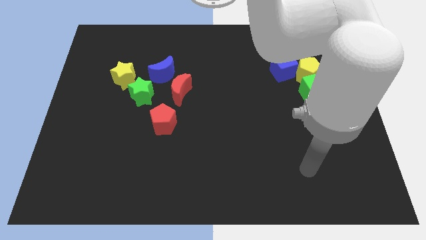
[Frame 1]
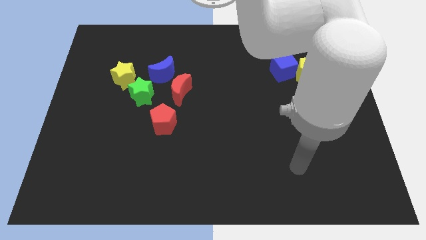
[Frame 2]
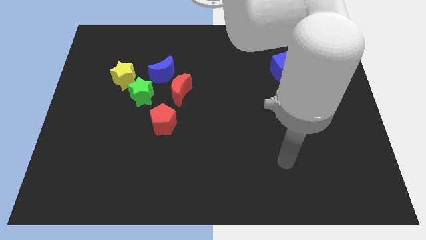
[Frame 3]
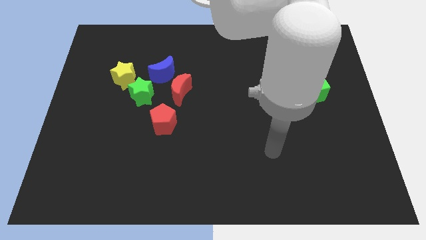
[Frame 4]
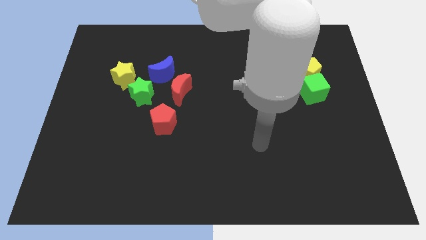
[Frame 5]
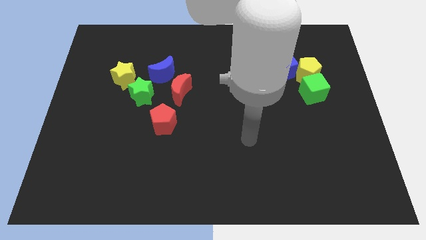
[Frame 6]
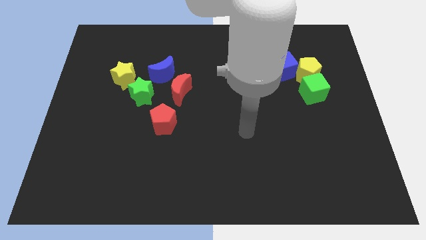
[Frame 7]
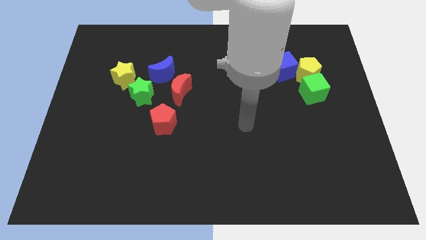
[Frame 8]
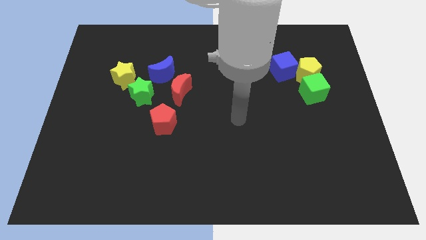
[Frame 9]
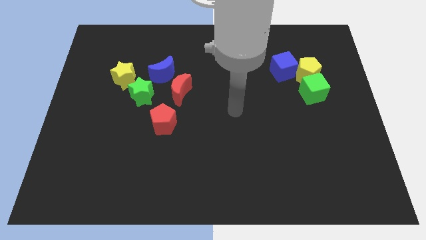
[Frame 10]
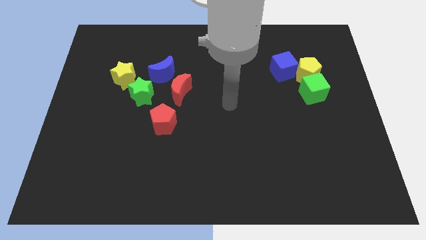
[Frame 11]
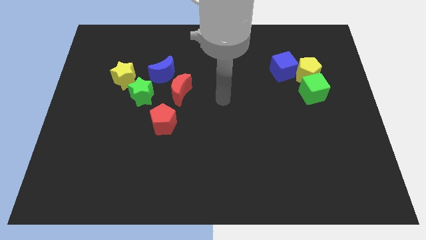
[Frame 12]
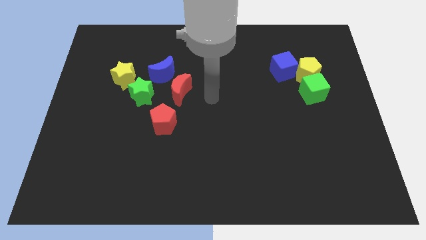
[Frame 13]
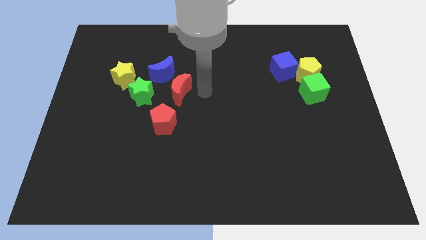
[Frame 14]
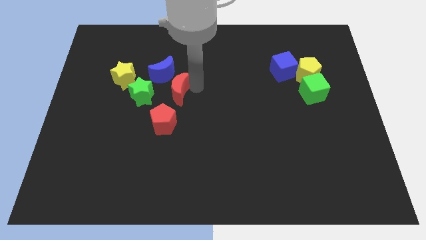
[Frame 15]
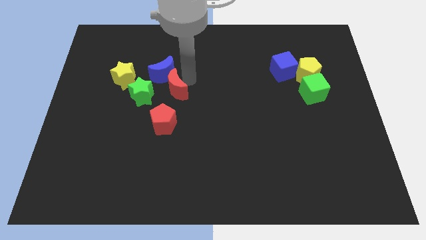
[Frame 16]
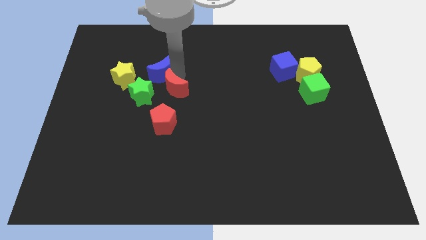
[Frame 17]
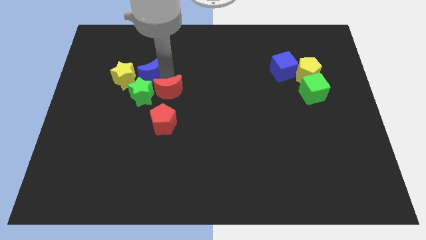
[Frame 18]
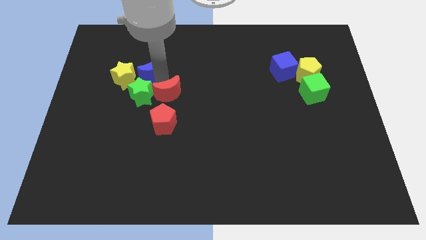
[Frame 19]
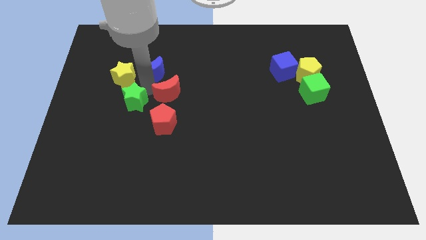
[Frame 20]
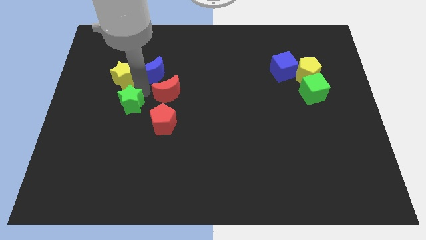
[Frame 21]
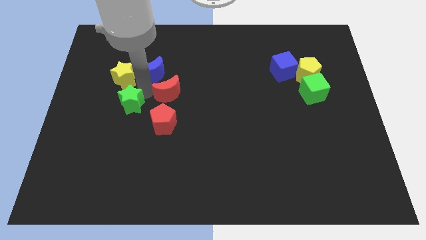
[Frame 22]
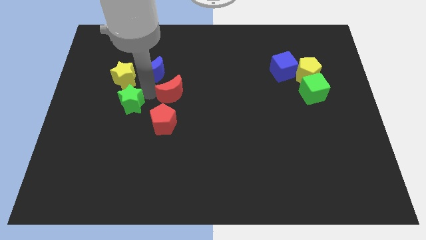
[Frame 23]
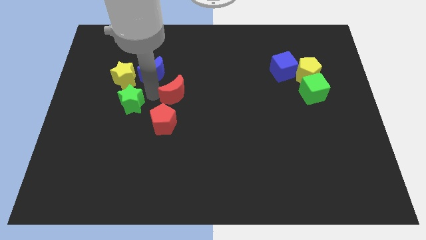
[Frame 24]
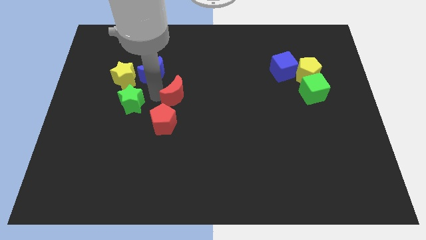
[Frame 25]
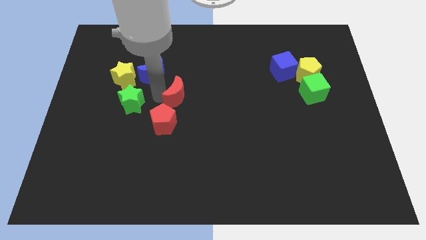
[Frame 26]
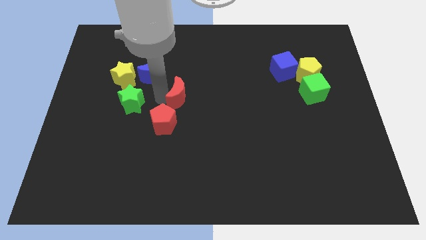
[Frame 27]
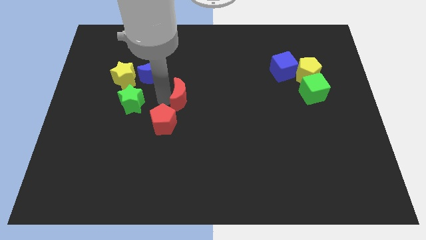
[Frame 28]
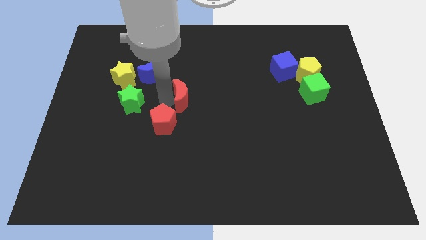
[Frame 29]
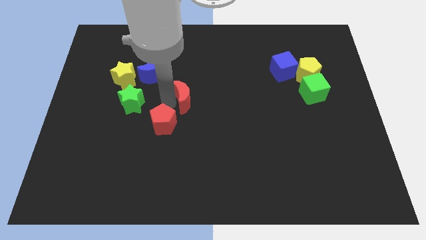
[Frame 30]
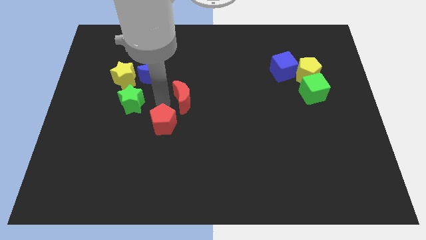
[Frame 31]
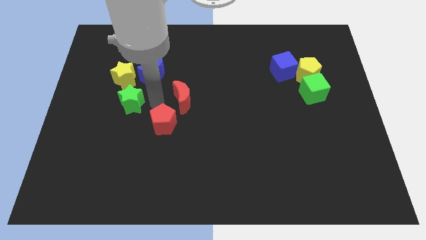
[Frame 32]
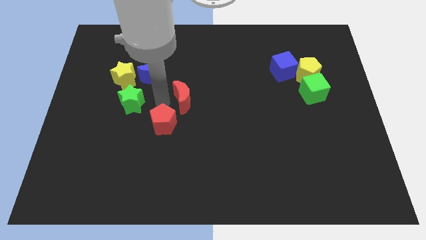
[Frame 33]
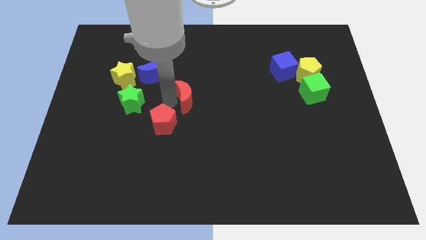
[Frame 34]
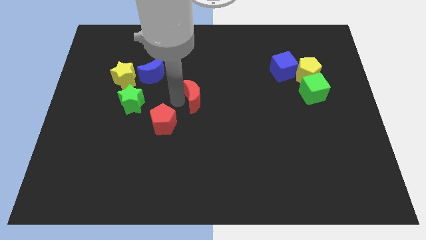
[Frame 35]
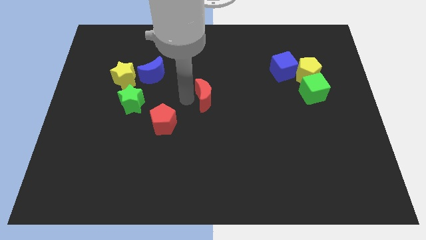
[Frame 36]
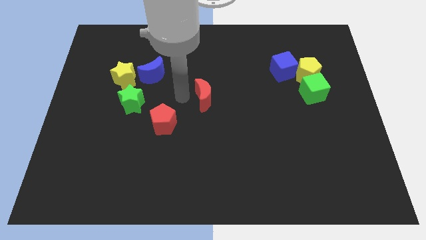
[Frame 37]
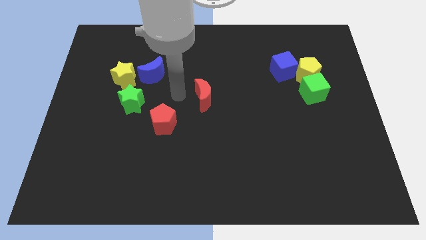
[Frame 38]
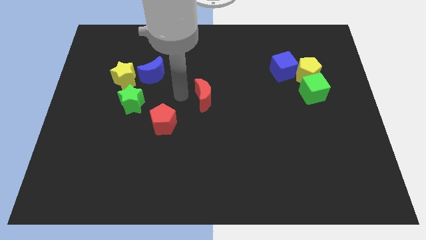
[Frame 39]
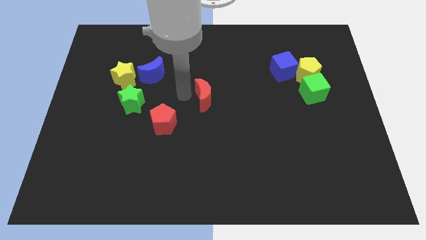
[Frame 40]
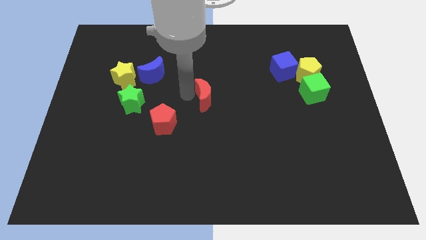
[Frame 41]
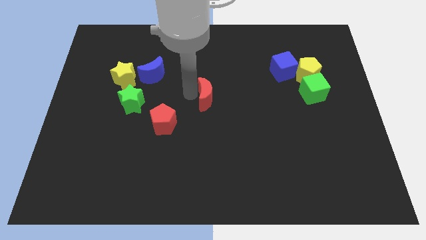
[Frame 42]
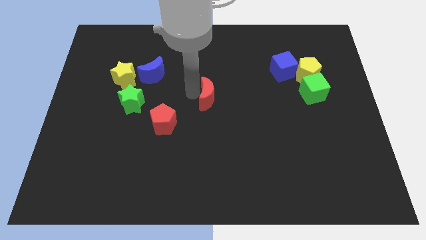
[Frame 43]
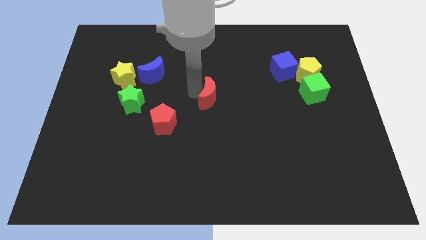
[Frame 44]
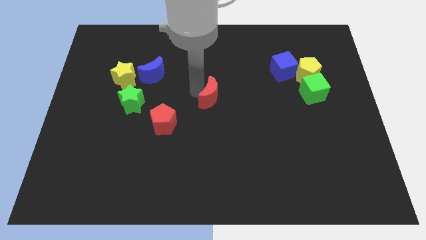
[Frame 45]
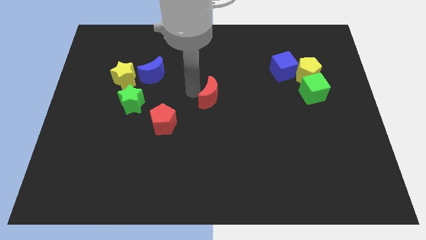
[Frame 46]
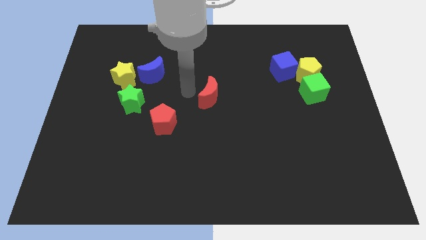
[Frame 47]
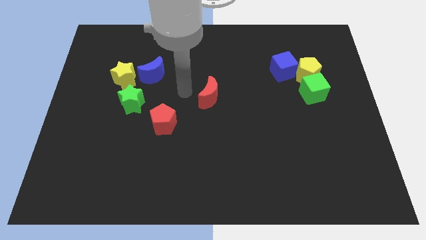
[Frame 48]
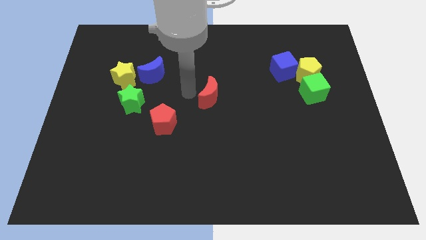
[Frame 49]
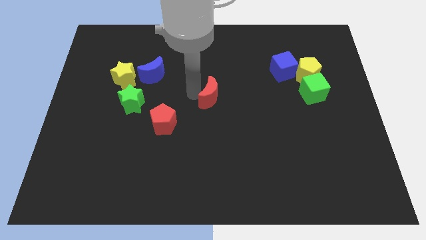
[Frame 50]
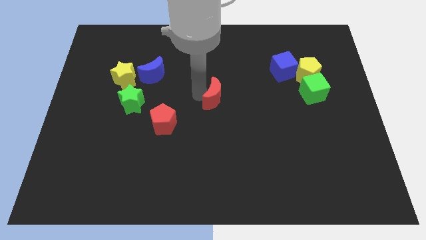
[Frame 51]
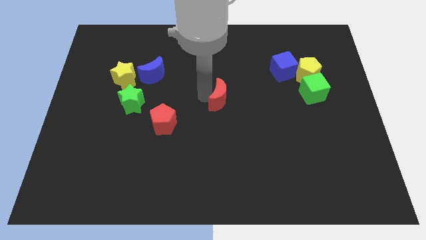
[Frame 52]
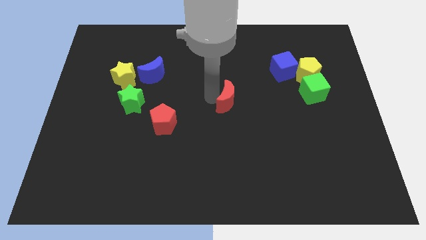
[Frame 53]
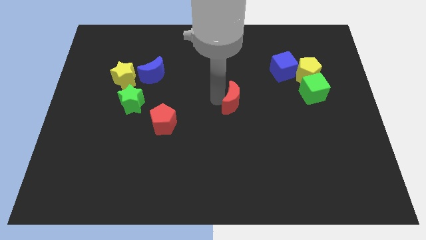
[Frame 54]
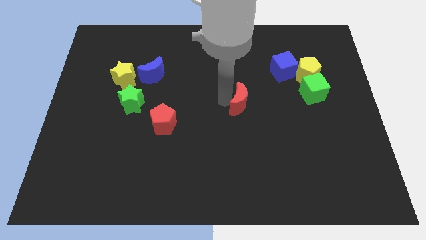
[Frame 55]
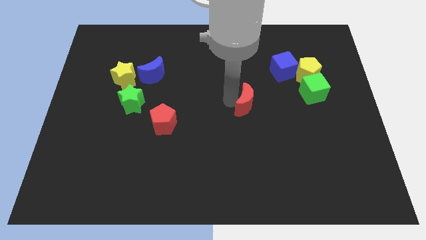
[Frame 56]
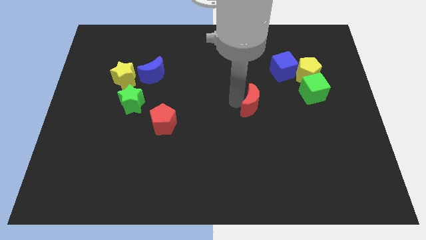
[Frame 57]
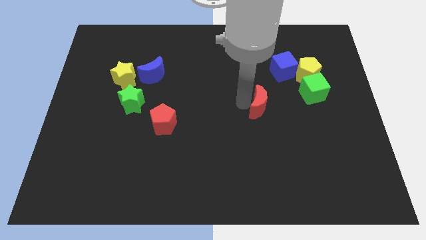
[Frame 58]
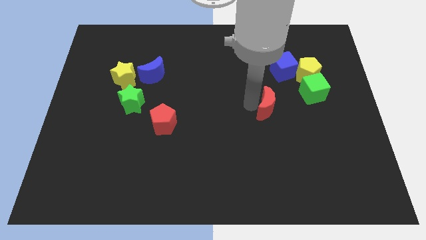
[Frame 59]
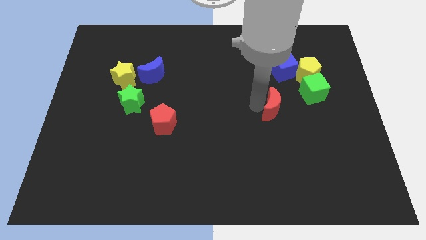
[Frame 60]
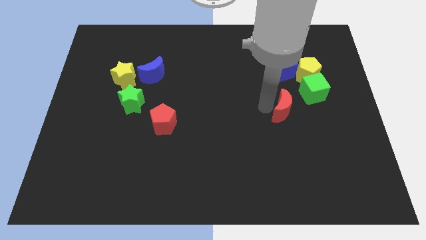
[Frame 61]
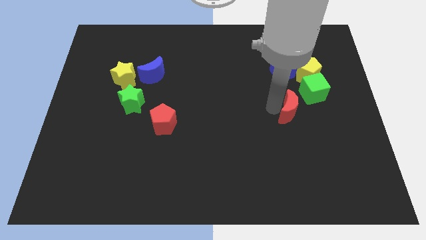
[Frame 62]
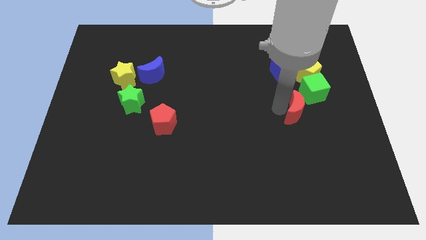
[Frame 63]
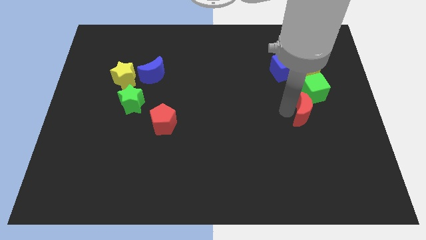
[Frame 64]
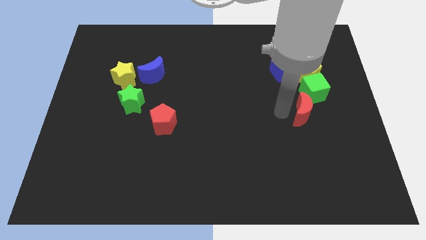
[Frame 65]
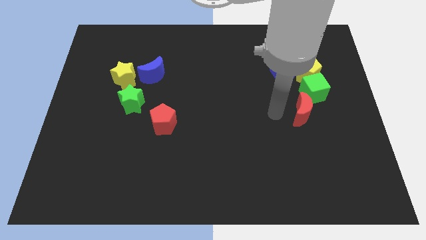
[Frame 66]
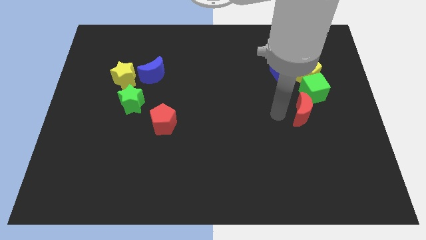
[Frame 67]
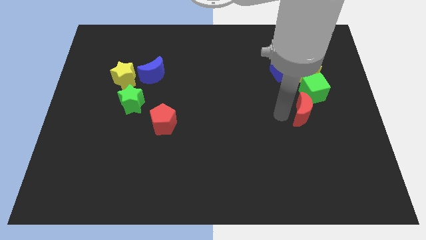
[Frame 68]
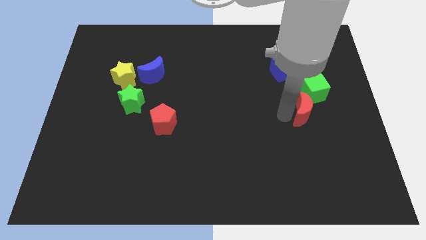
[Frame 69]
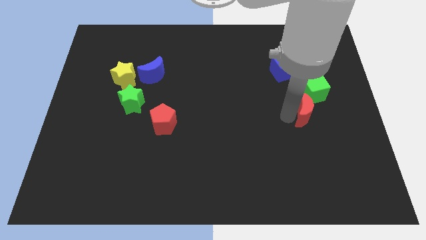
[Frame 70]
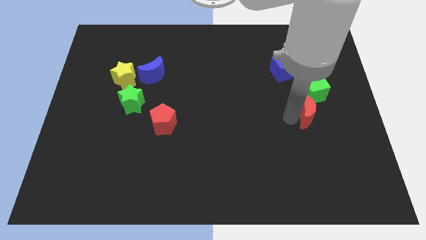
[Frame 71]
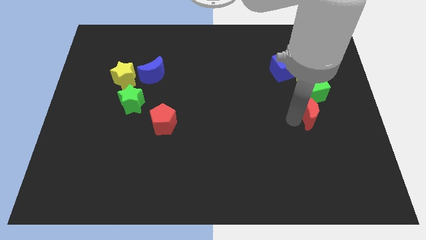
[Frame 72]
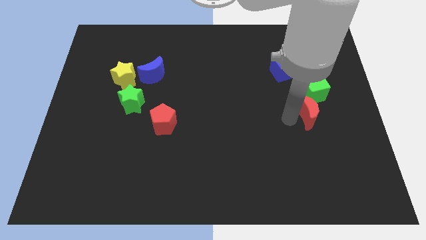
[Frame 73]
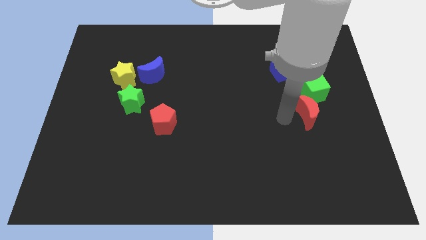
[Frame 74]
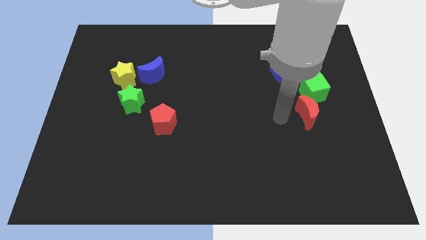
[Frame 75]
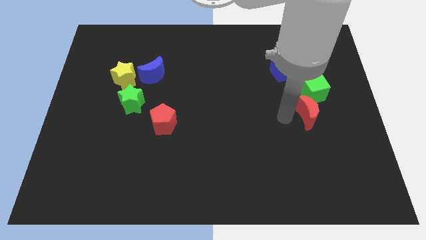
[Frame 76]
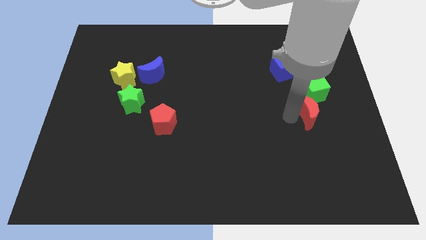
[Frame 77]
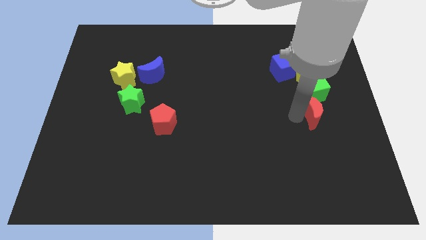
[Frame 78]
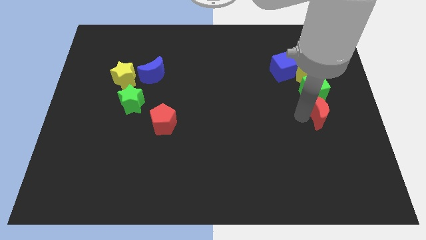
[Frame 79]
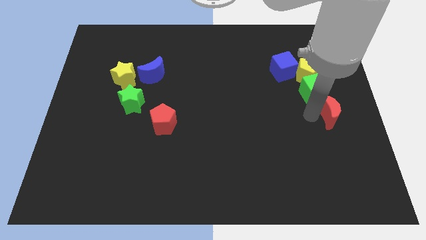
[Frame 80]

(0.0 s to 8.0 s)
slide the red moon to the right side of the board
